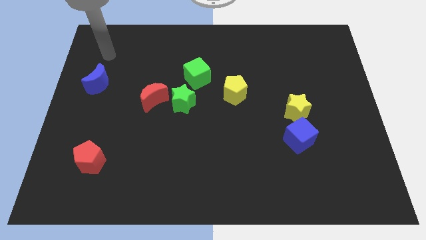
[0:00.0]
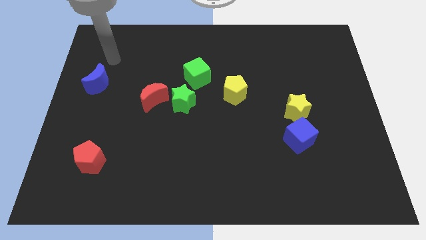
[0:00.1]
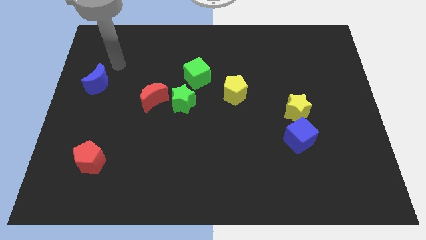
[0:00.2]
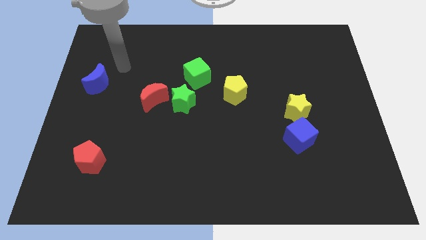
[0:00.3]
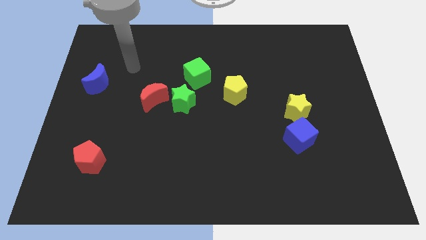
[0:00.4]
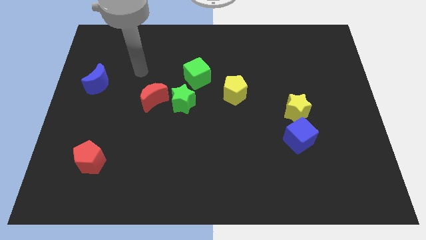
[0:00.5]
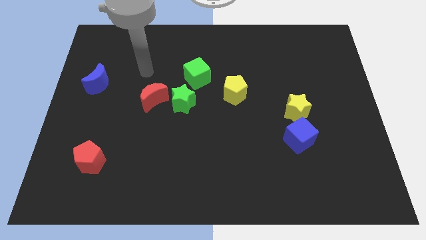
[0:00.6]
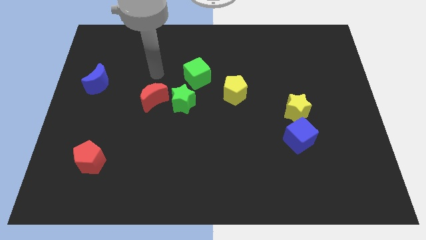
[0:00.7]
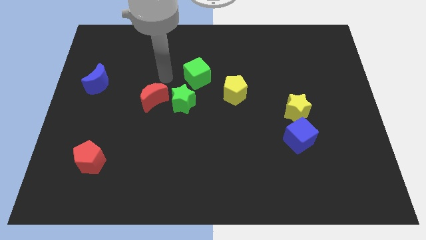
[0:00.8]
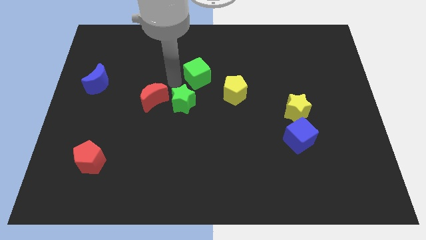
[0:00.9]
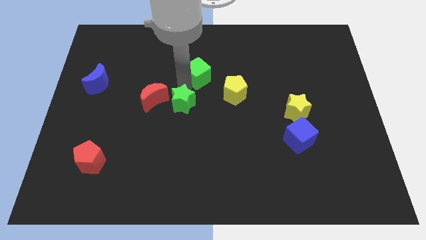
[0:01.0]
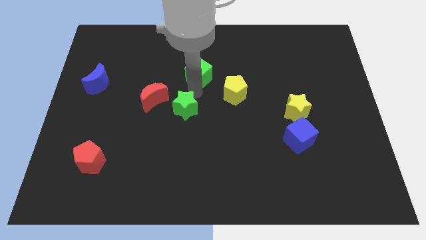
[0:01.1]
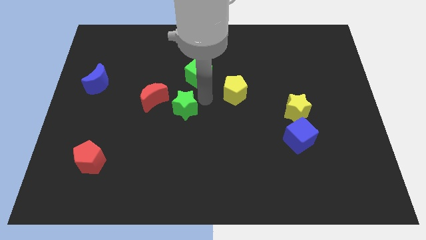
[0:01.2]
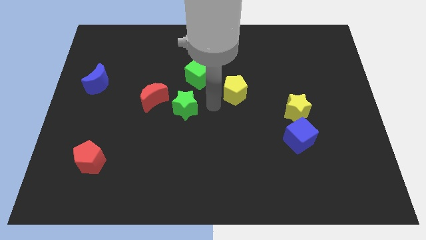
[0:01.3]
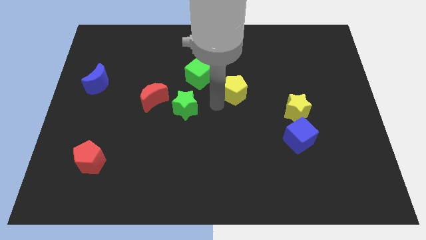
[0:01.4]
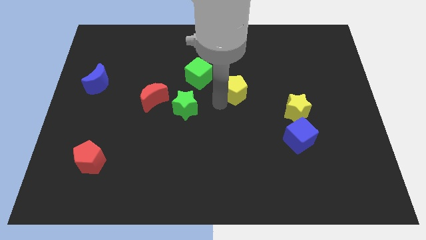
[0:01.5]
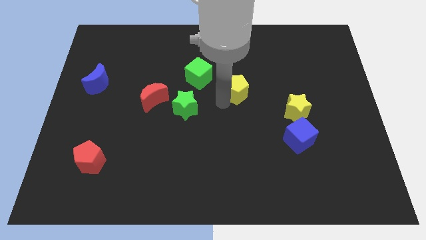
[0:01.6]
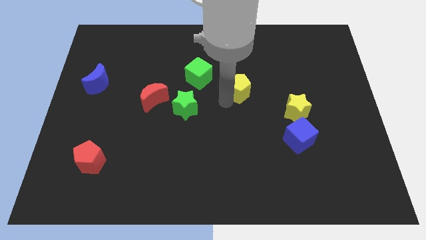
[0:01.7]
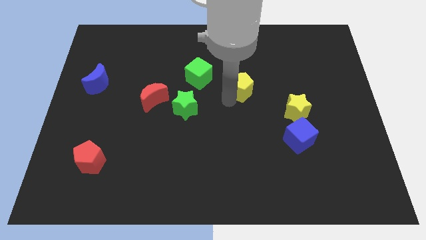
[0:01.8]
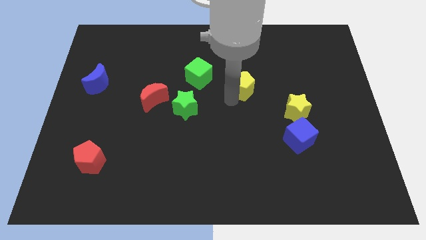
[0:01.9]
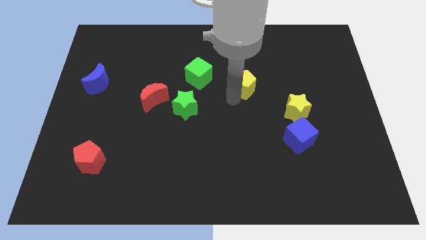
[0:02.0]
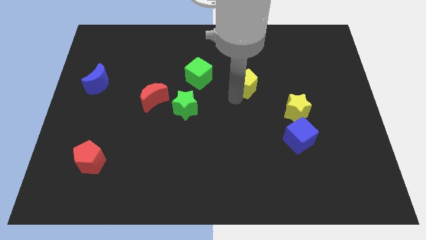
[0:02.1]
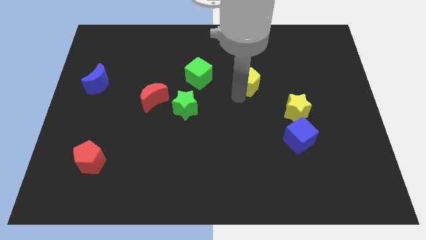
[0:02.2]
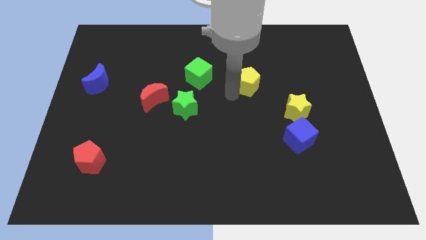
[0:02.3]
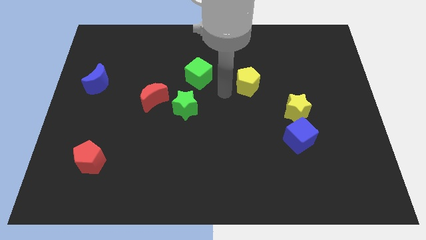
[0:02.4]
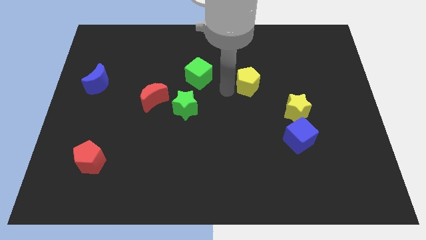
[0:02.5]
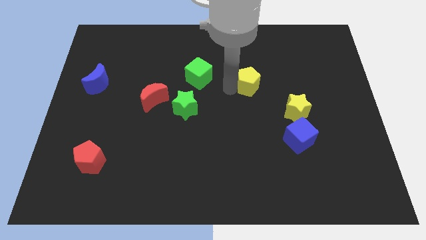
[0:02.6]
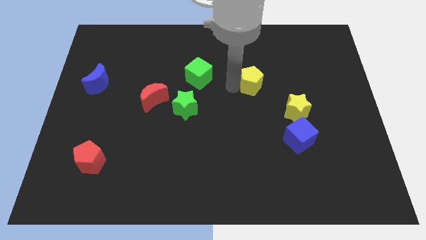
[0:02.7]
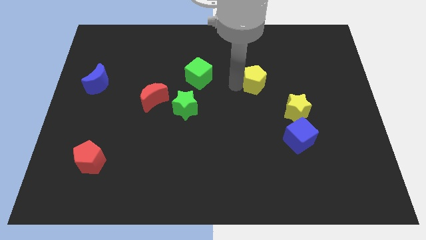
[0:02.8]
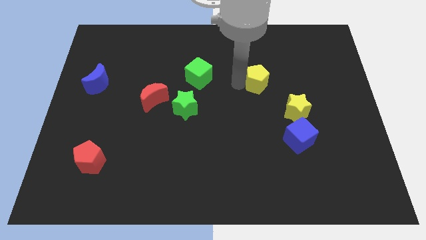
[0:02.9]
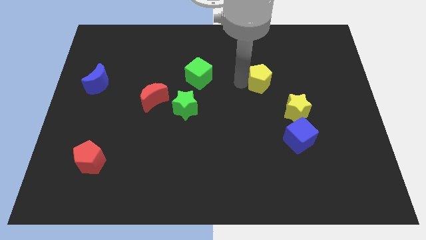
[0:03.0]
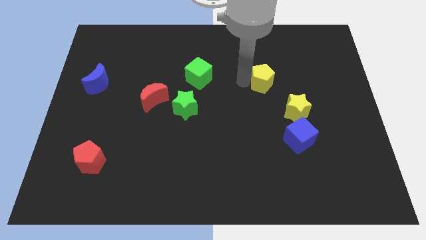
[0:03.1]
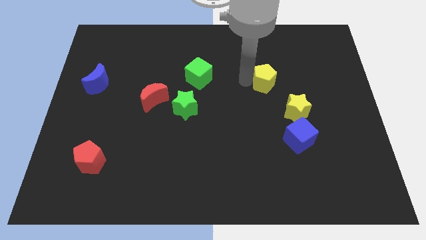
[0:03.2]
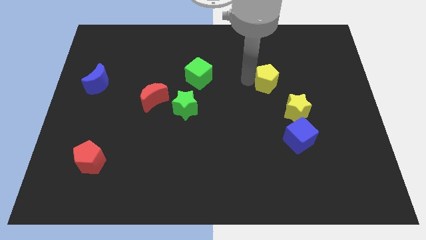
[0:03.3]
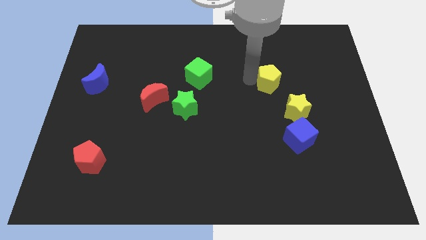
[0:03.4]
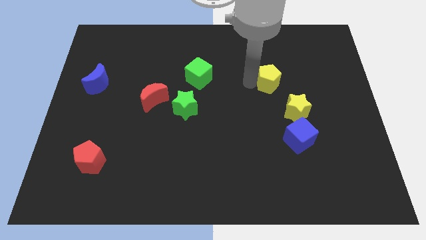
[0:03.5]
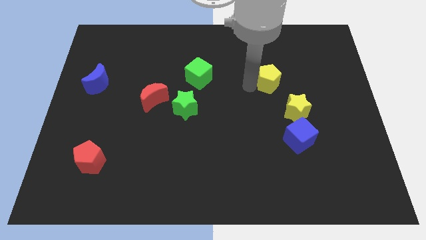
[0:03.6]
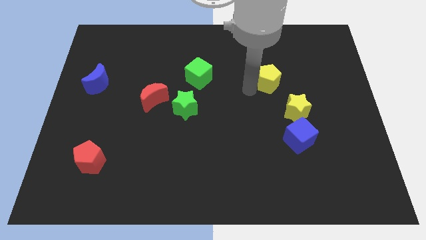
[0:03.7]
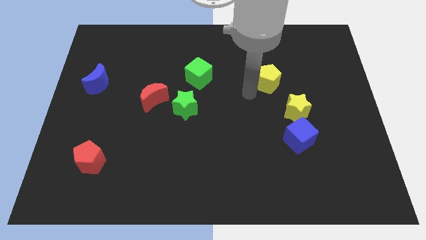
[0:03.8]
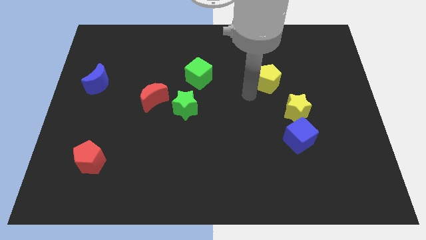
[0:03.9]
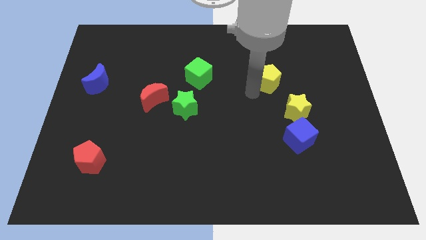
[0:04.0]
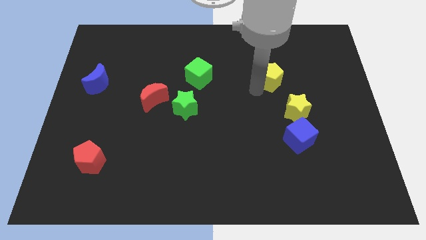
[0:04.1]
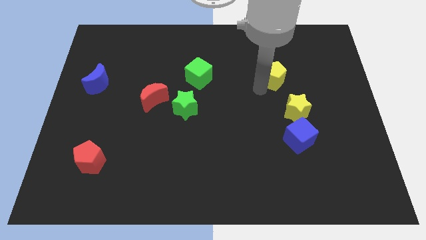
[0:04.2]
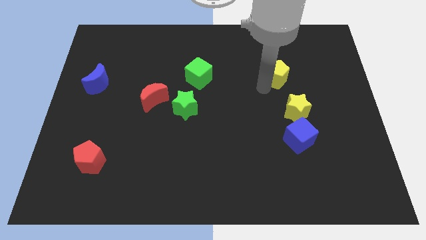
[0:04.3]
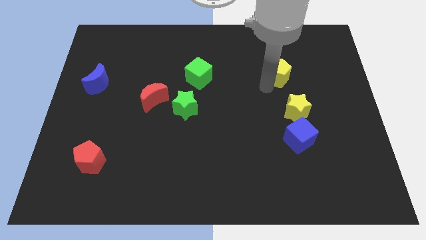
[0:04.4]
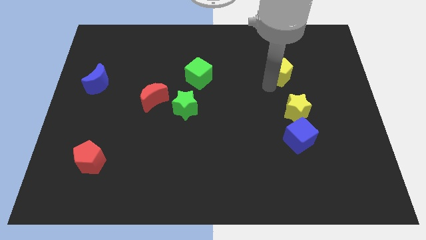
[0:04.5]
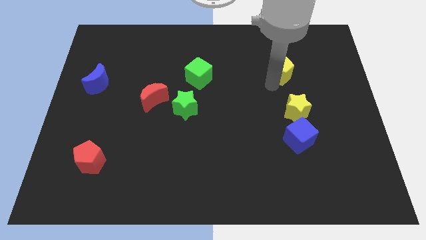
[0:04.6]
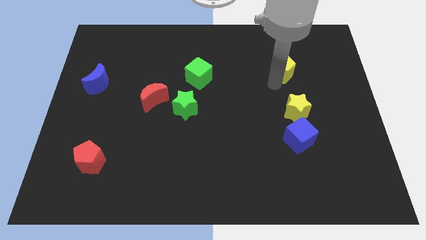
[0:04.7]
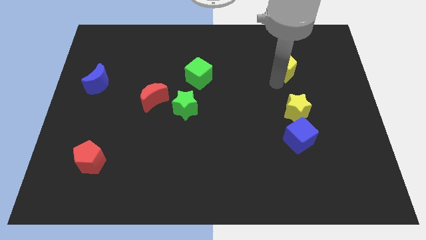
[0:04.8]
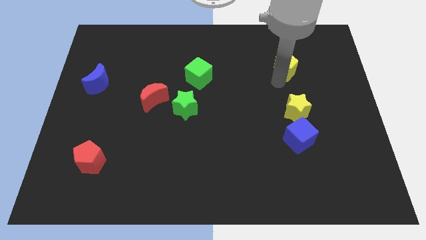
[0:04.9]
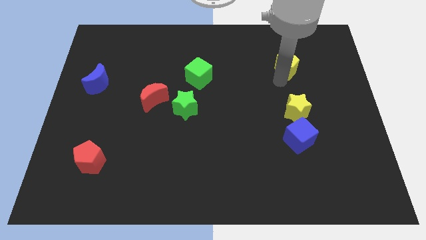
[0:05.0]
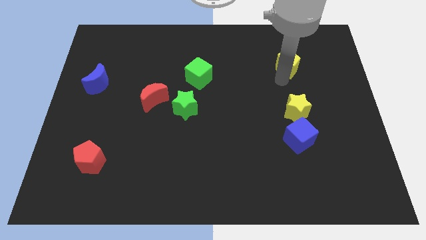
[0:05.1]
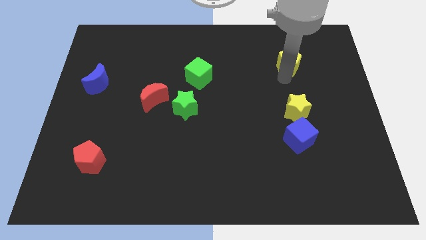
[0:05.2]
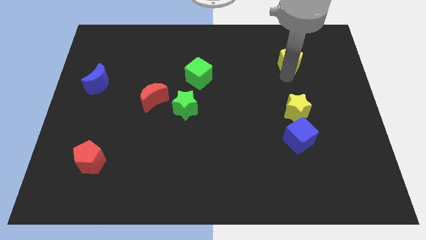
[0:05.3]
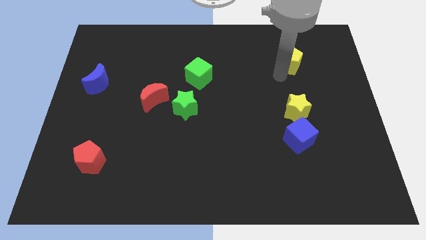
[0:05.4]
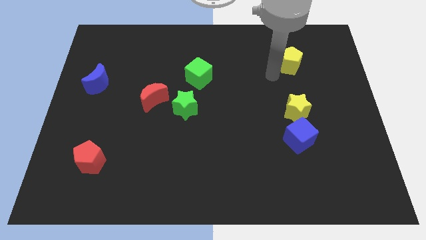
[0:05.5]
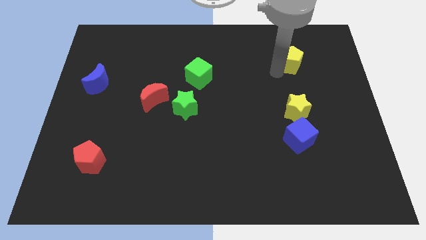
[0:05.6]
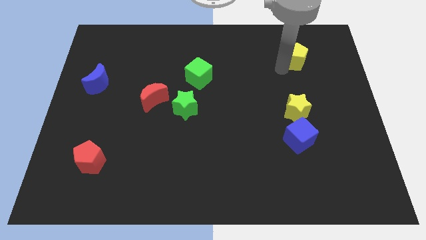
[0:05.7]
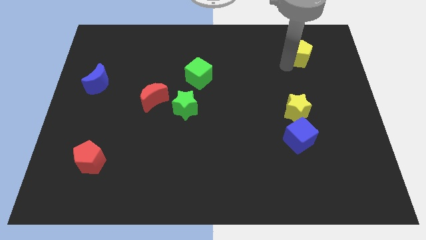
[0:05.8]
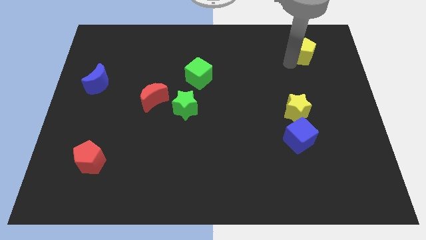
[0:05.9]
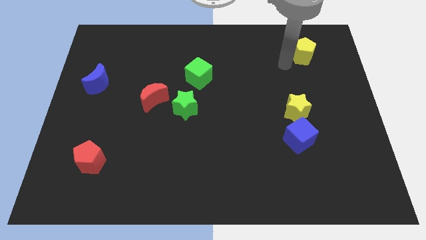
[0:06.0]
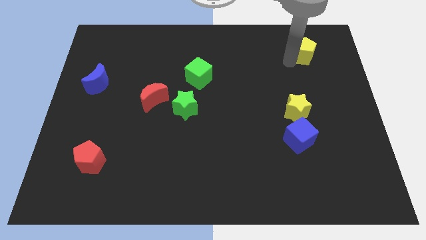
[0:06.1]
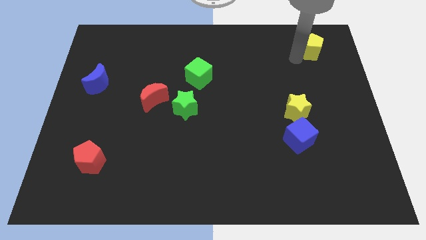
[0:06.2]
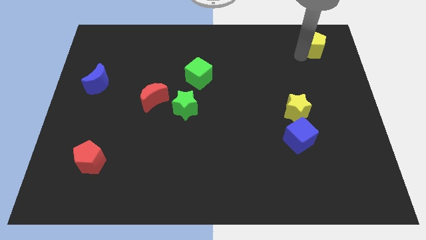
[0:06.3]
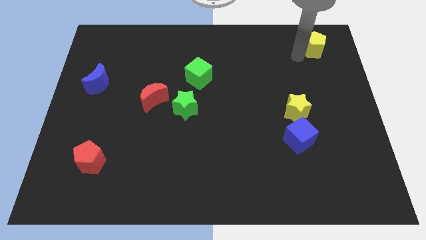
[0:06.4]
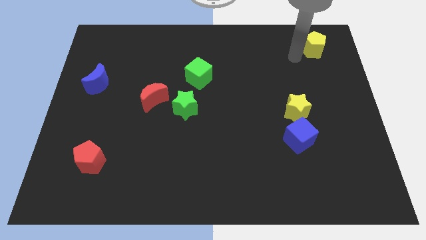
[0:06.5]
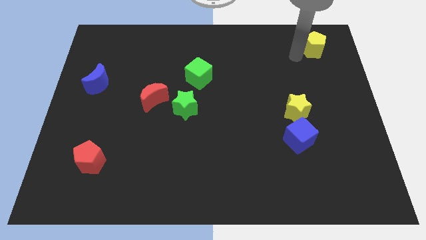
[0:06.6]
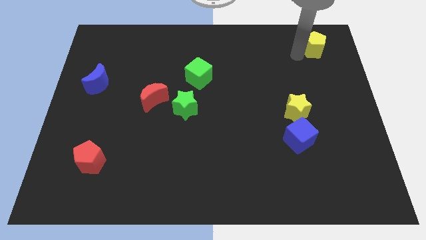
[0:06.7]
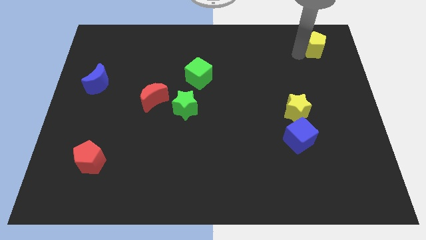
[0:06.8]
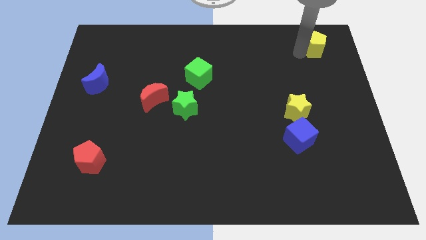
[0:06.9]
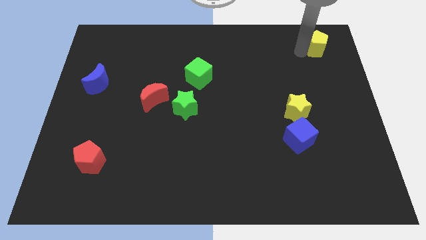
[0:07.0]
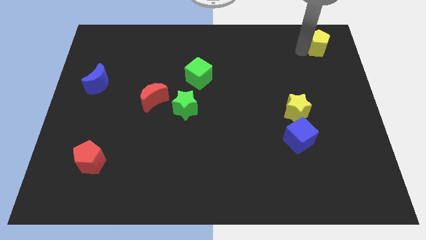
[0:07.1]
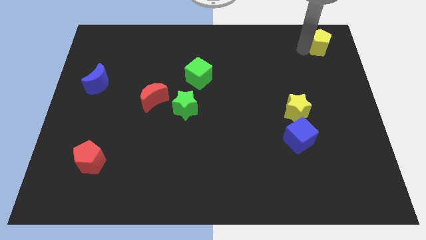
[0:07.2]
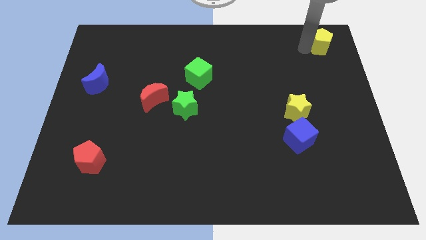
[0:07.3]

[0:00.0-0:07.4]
move the yellow pentagon to the top right corner
